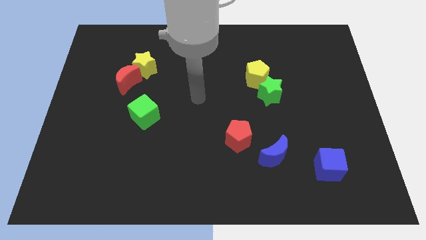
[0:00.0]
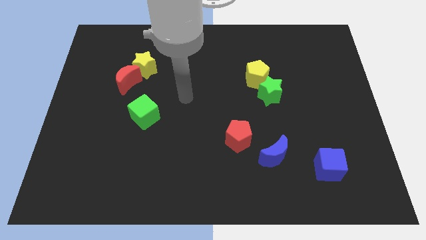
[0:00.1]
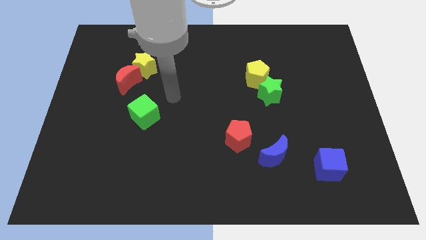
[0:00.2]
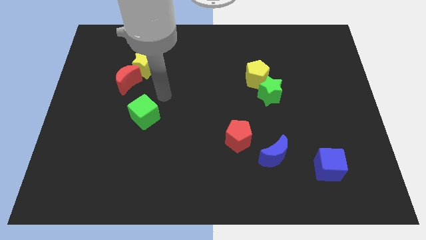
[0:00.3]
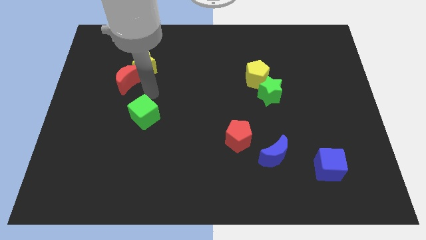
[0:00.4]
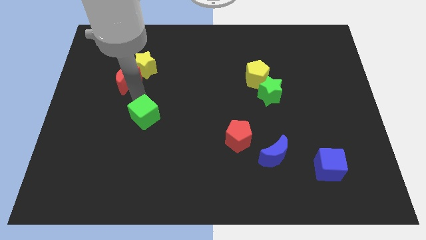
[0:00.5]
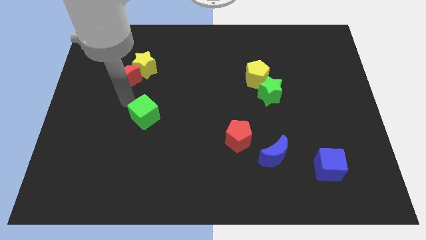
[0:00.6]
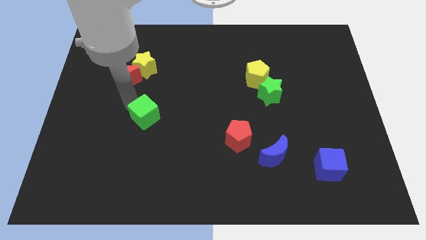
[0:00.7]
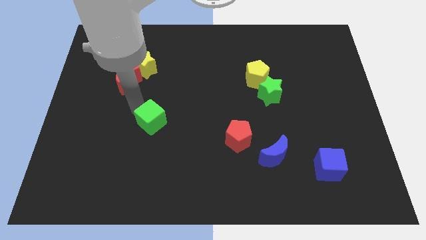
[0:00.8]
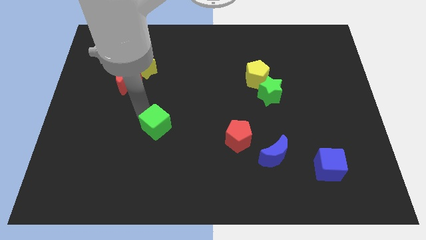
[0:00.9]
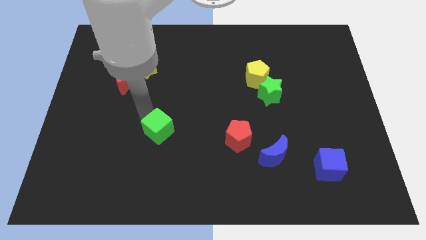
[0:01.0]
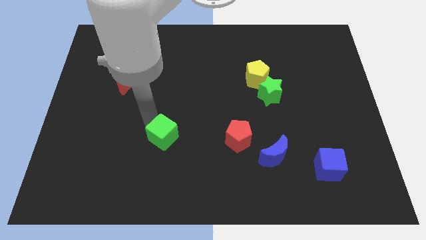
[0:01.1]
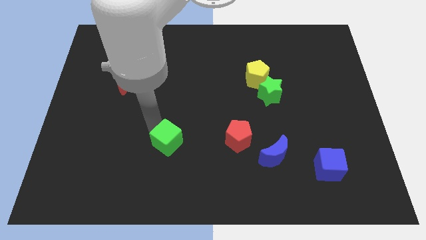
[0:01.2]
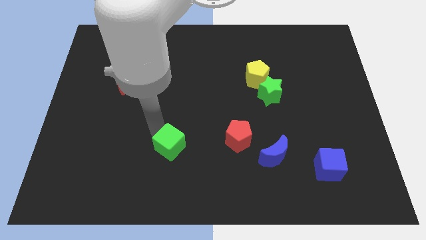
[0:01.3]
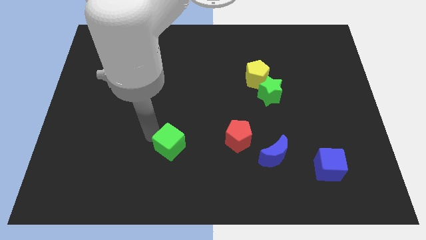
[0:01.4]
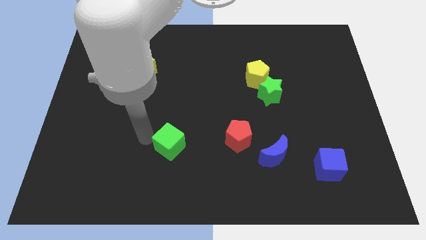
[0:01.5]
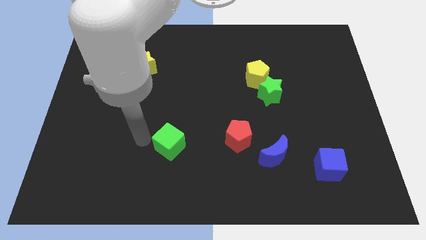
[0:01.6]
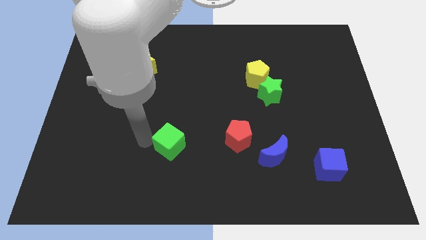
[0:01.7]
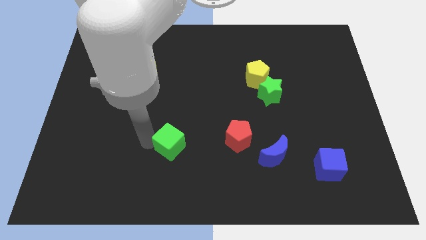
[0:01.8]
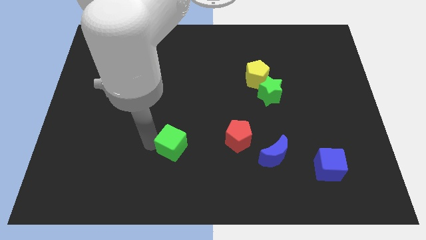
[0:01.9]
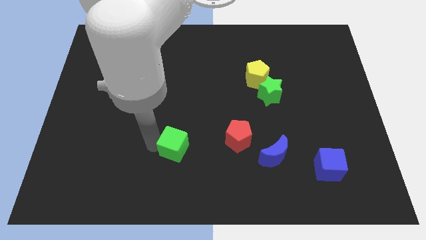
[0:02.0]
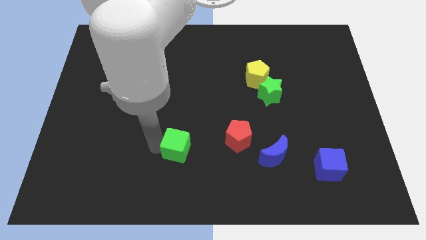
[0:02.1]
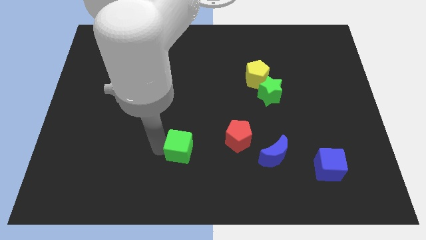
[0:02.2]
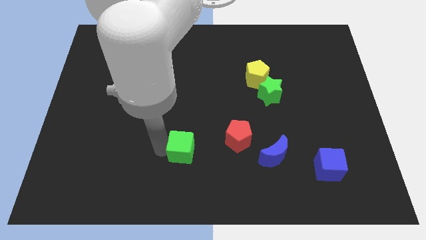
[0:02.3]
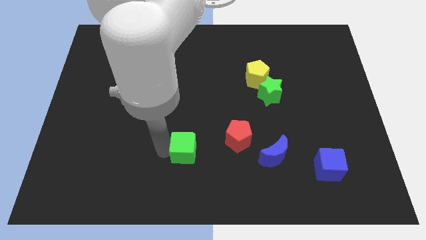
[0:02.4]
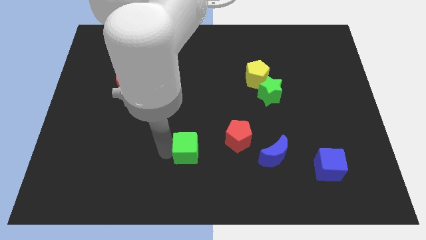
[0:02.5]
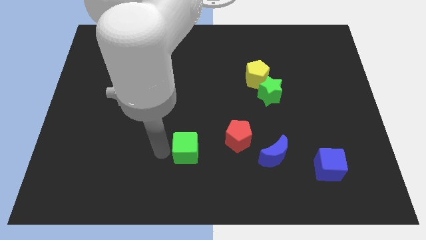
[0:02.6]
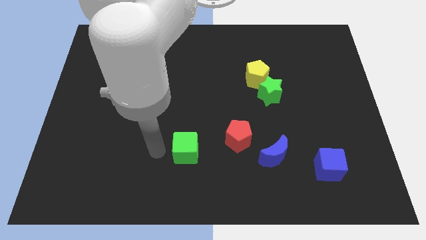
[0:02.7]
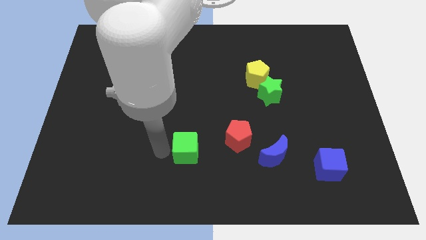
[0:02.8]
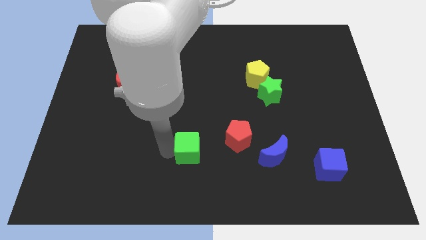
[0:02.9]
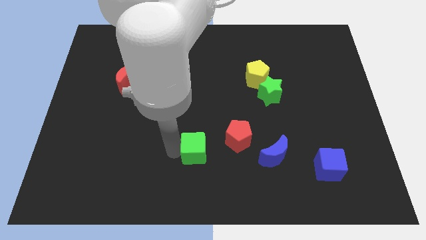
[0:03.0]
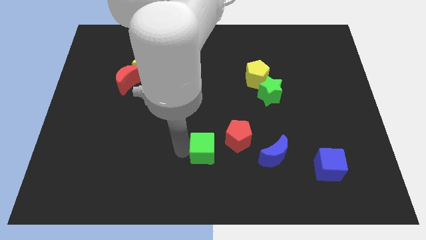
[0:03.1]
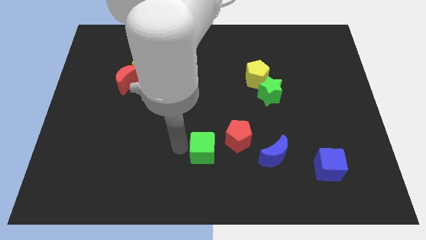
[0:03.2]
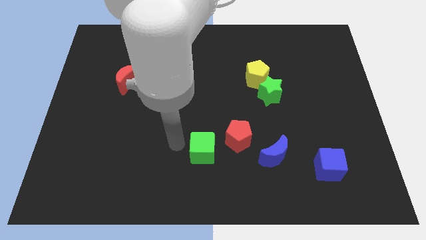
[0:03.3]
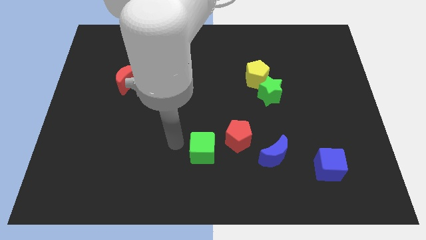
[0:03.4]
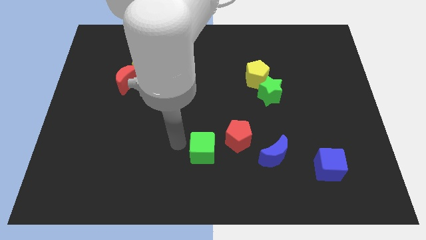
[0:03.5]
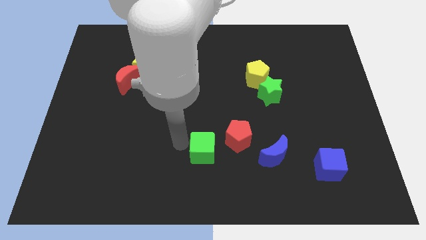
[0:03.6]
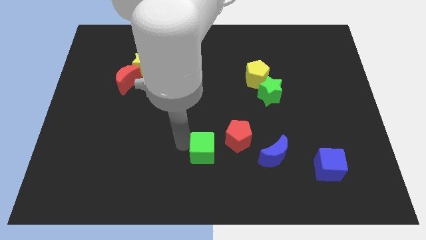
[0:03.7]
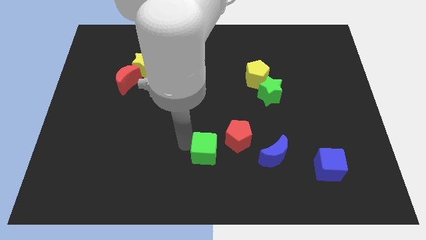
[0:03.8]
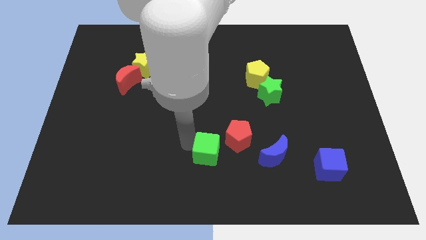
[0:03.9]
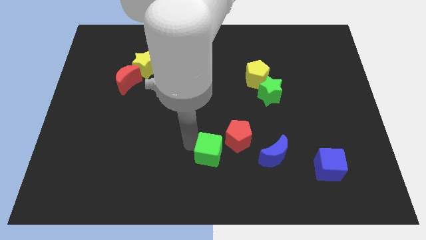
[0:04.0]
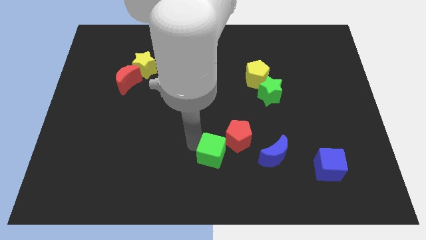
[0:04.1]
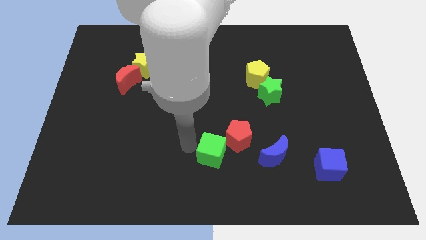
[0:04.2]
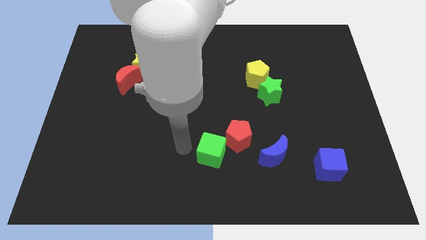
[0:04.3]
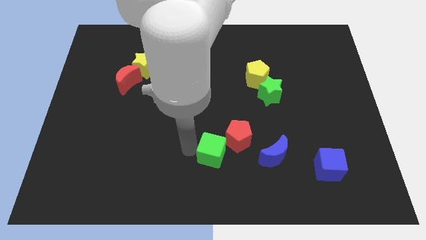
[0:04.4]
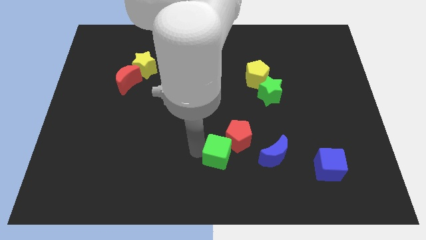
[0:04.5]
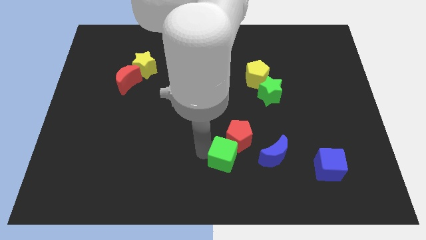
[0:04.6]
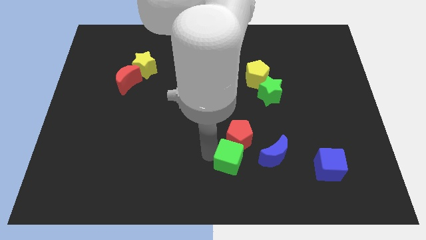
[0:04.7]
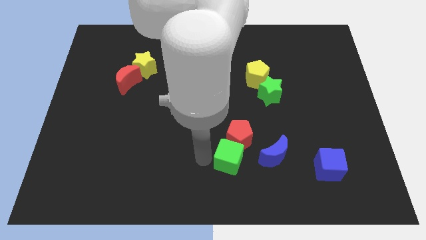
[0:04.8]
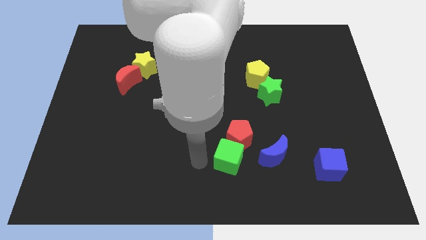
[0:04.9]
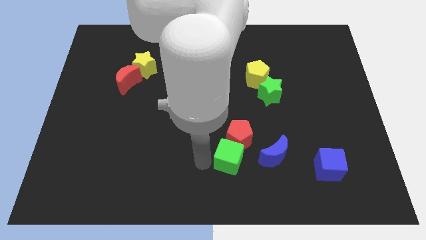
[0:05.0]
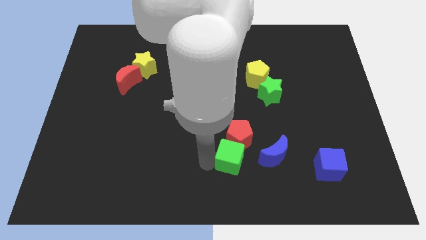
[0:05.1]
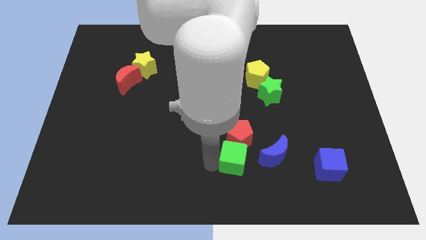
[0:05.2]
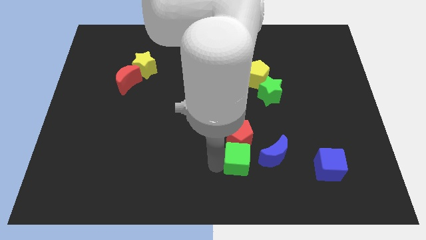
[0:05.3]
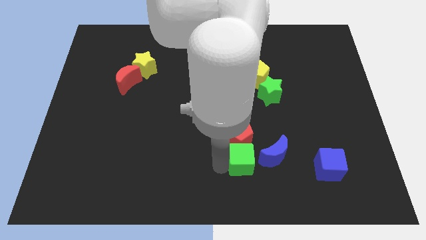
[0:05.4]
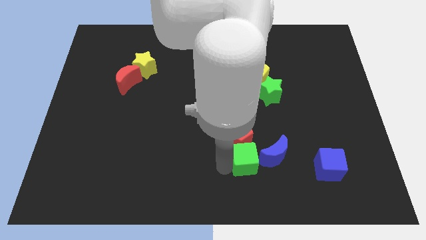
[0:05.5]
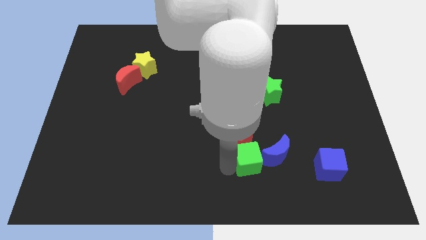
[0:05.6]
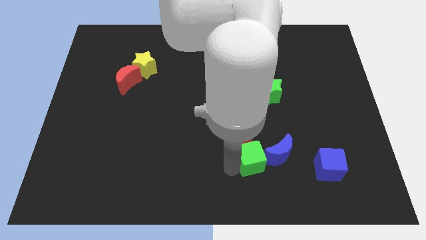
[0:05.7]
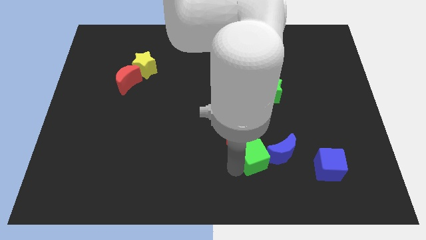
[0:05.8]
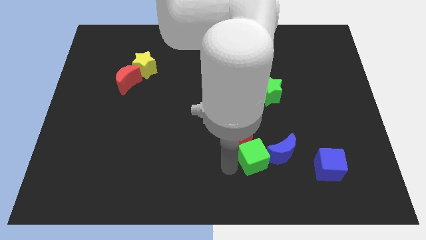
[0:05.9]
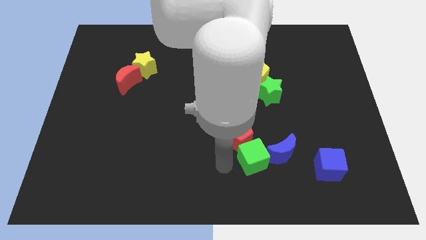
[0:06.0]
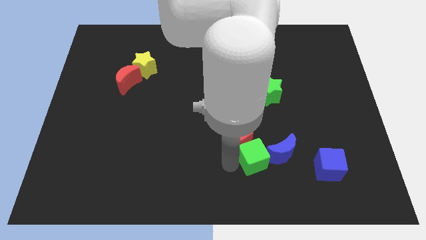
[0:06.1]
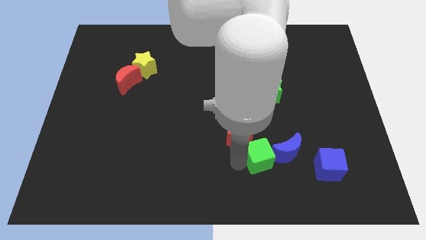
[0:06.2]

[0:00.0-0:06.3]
move the green cube towards the blue moon
